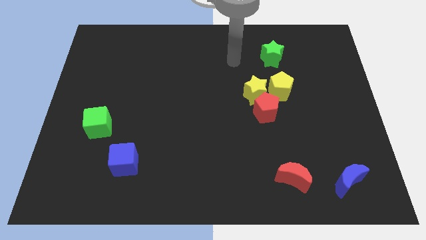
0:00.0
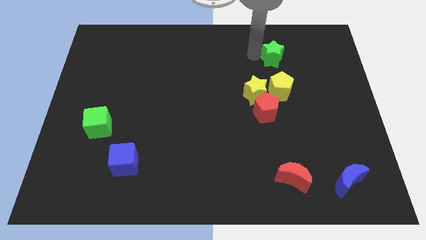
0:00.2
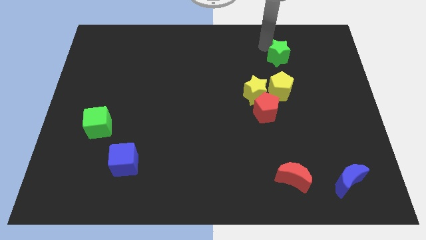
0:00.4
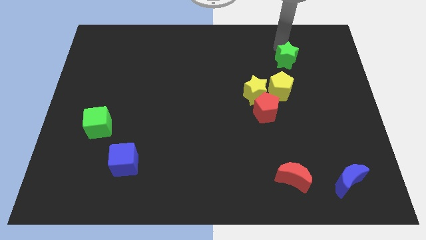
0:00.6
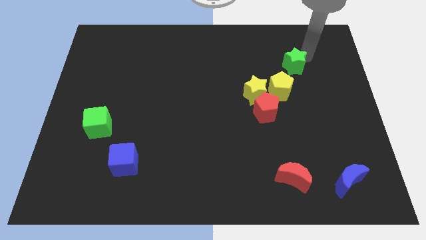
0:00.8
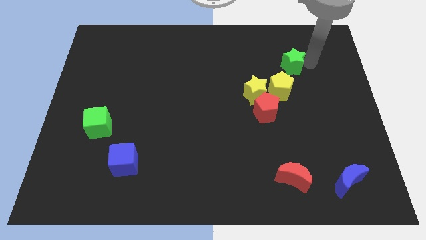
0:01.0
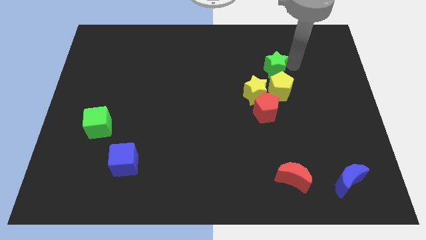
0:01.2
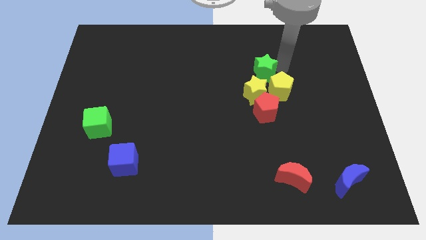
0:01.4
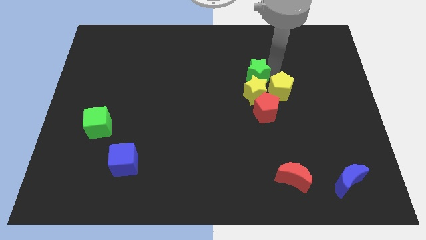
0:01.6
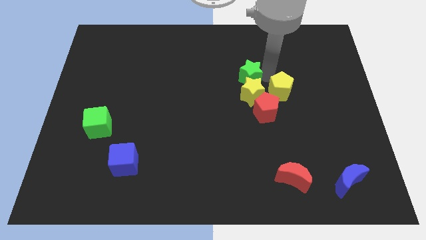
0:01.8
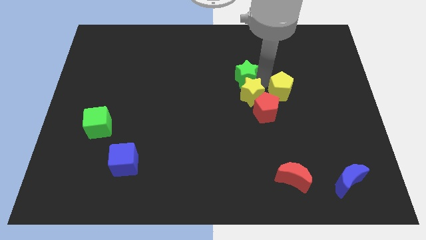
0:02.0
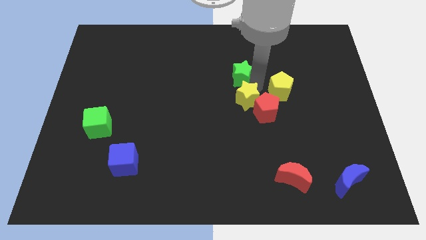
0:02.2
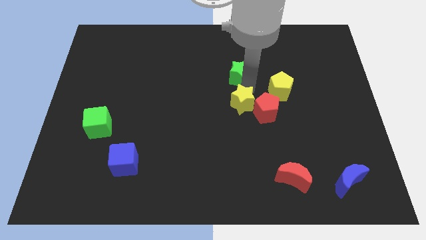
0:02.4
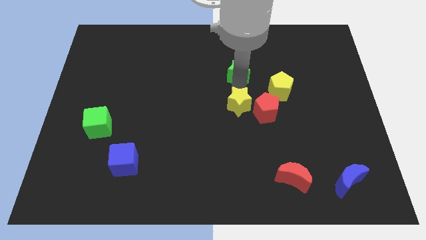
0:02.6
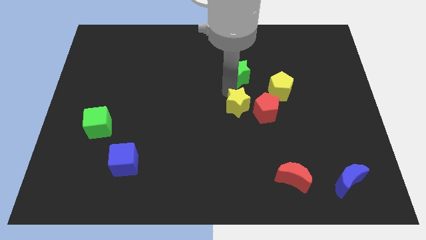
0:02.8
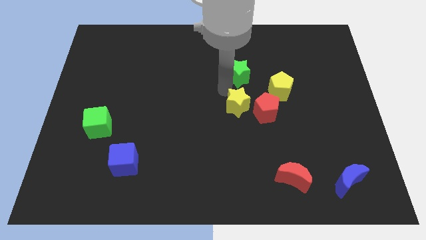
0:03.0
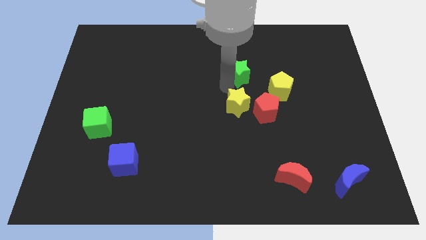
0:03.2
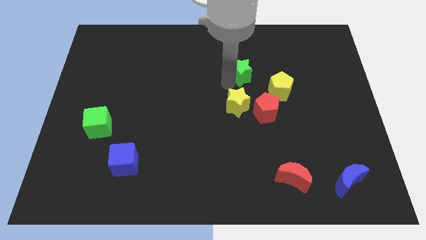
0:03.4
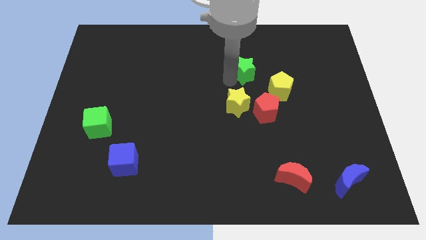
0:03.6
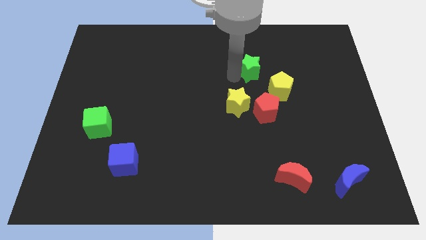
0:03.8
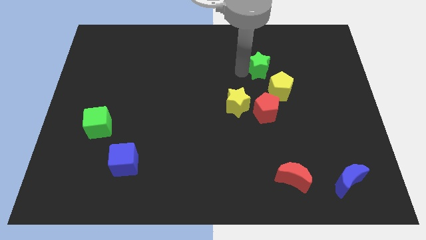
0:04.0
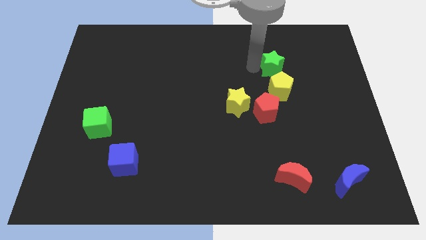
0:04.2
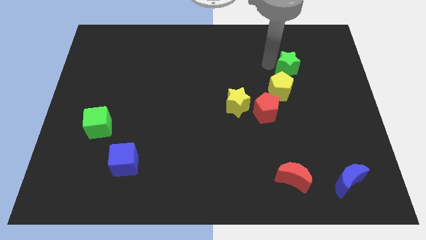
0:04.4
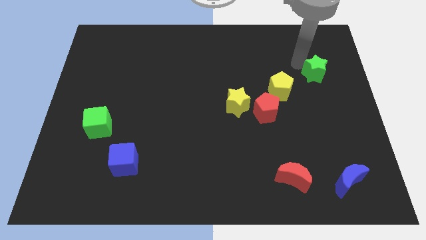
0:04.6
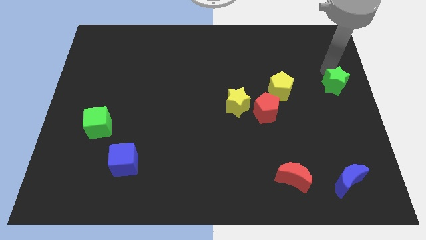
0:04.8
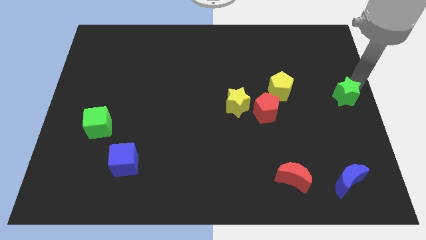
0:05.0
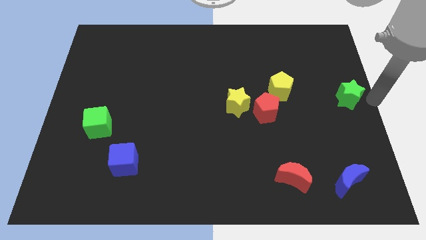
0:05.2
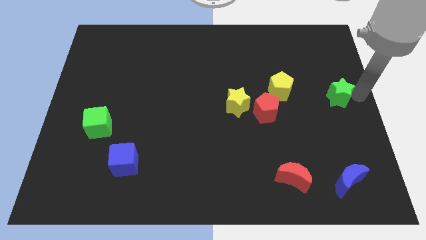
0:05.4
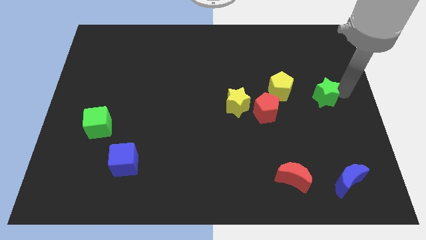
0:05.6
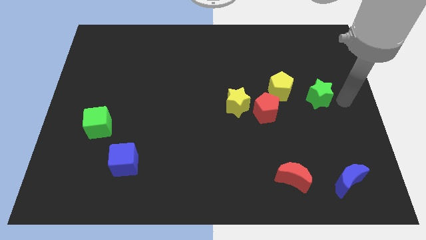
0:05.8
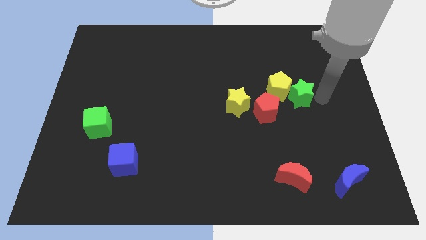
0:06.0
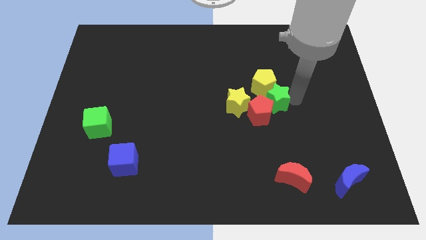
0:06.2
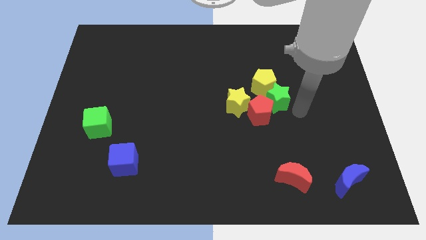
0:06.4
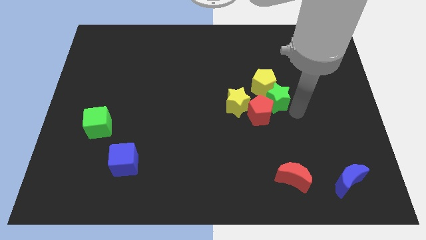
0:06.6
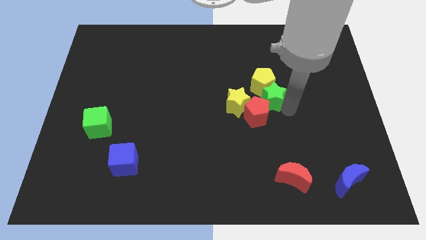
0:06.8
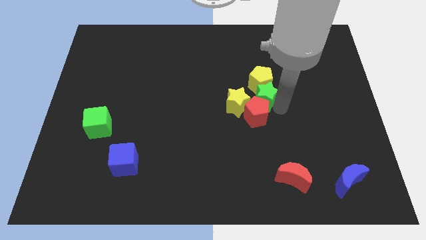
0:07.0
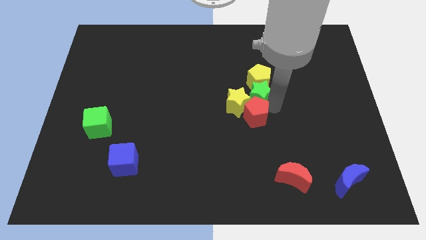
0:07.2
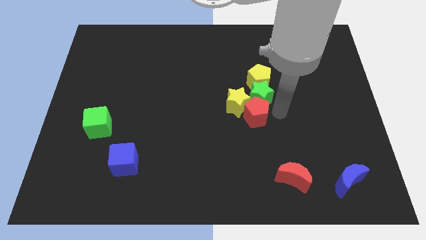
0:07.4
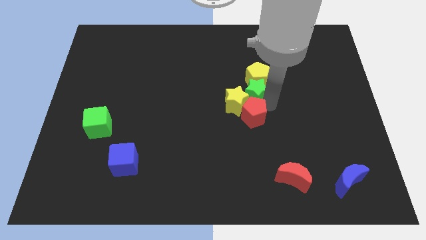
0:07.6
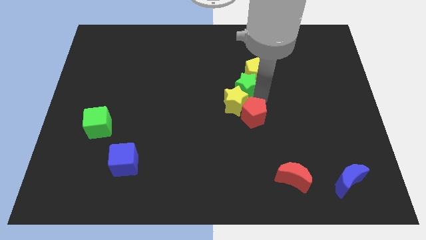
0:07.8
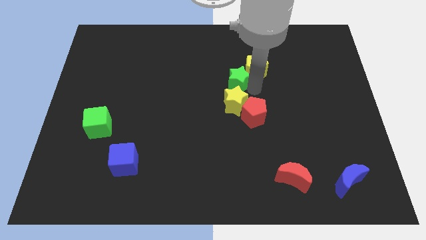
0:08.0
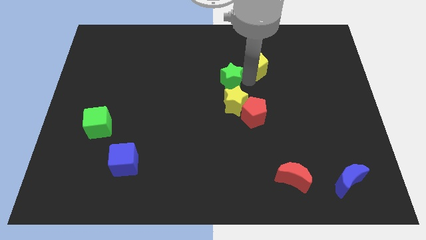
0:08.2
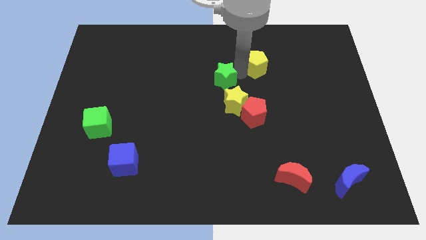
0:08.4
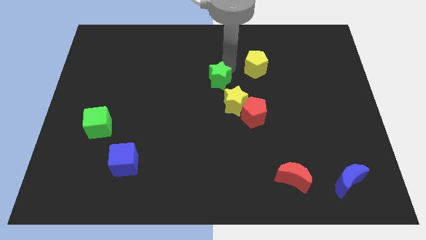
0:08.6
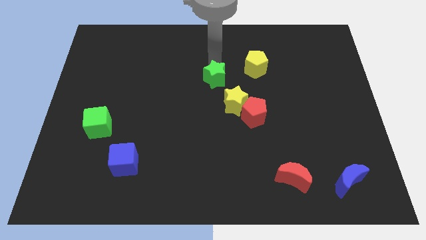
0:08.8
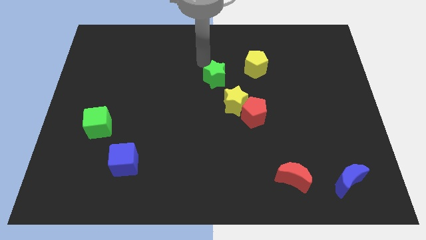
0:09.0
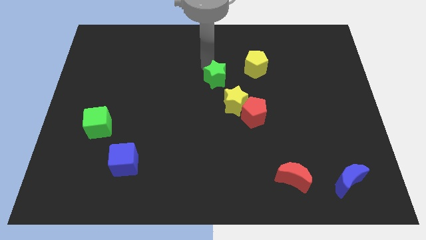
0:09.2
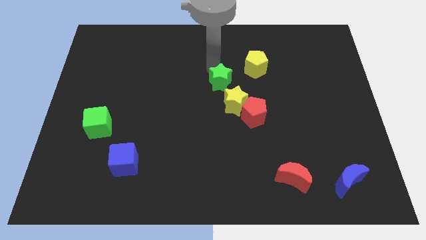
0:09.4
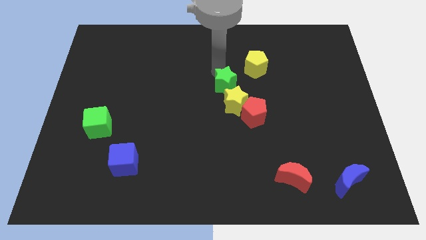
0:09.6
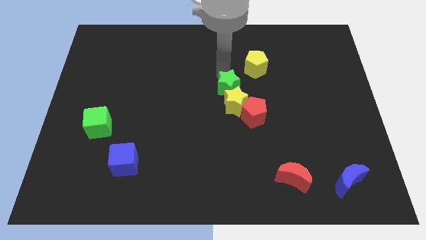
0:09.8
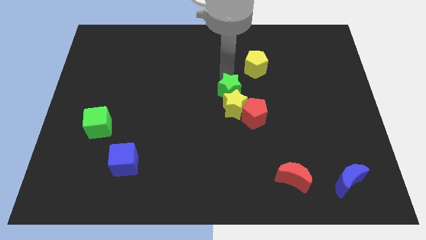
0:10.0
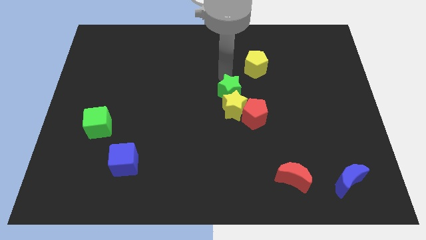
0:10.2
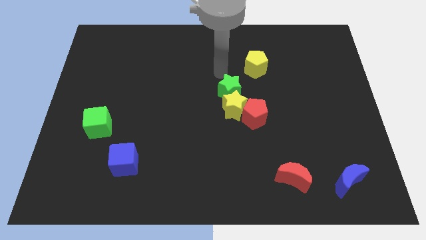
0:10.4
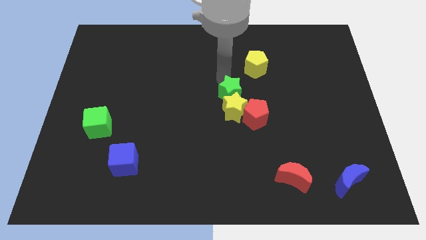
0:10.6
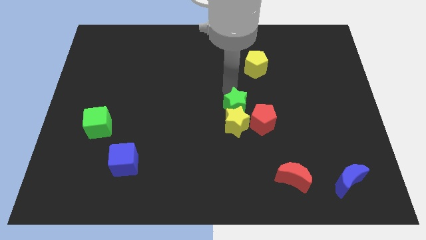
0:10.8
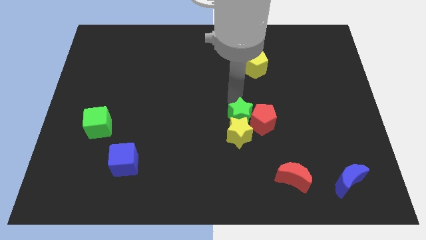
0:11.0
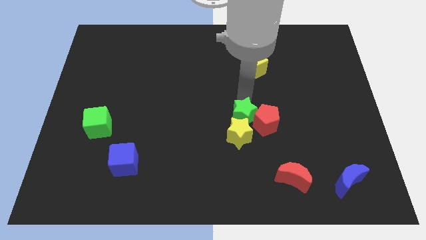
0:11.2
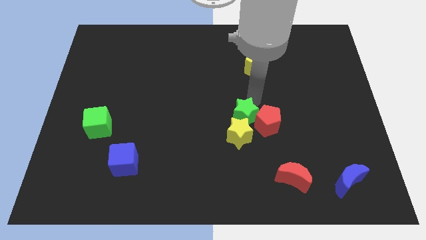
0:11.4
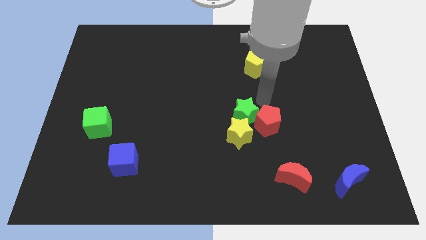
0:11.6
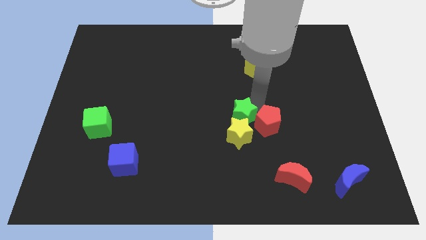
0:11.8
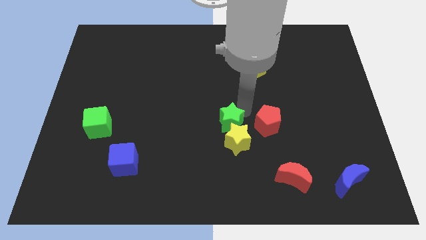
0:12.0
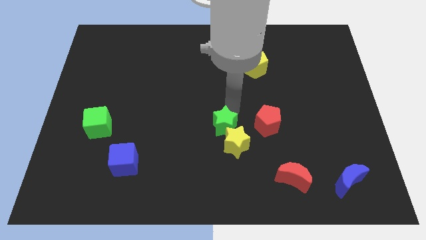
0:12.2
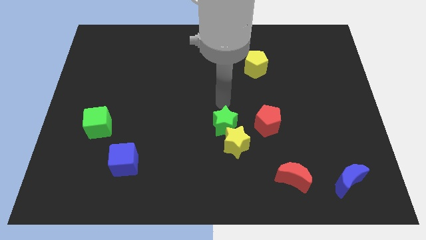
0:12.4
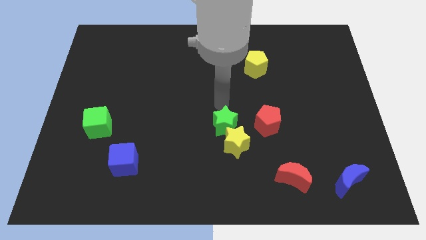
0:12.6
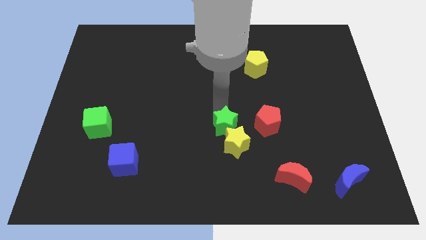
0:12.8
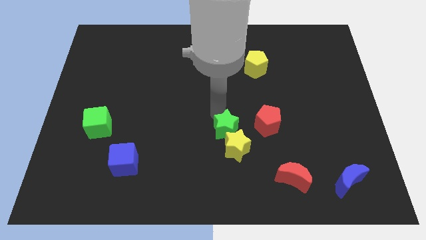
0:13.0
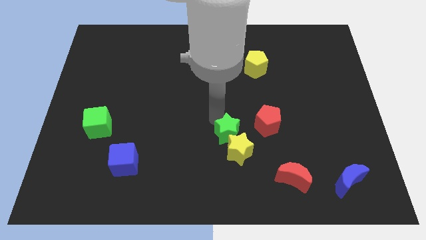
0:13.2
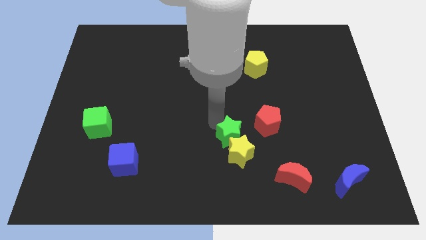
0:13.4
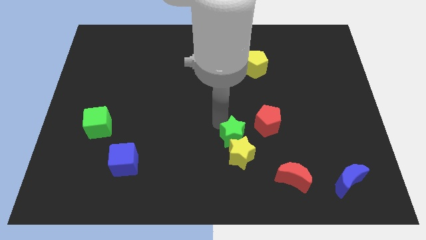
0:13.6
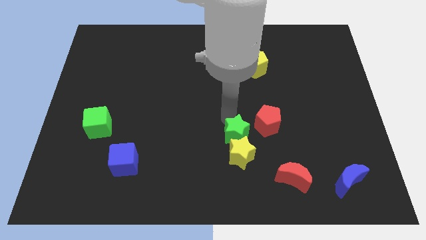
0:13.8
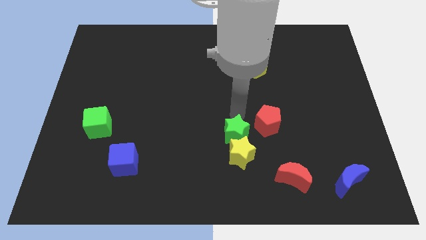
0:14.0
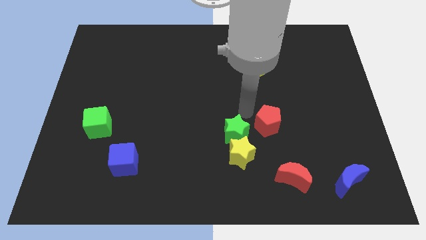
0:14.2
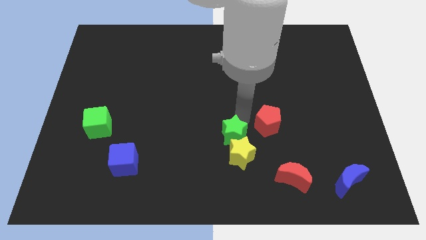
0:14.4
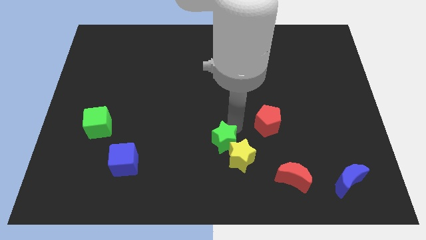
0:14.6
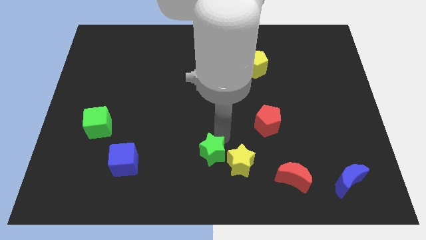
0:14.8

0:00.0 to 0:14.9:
move the green star to the bottom

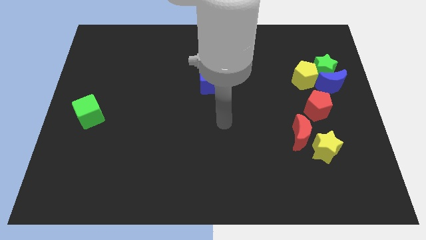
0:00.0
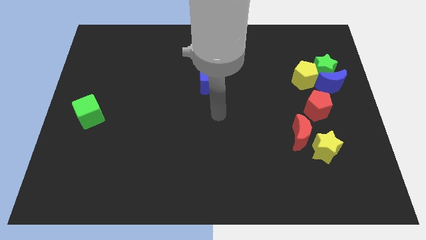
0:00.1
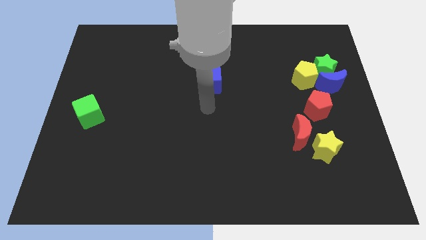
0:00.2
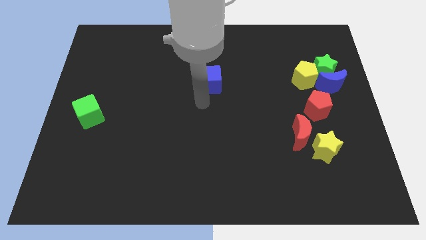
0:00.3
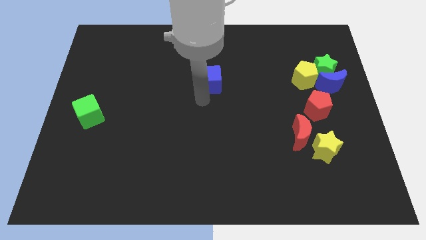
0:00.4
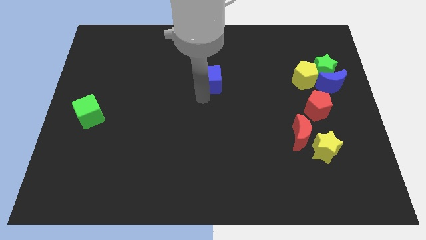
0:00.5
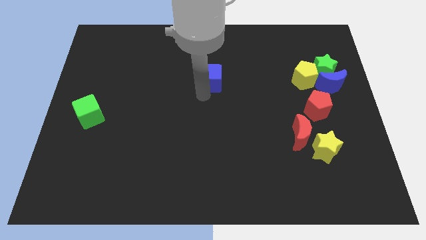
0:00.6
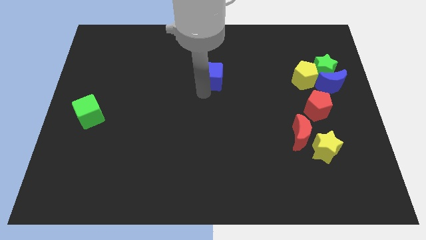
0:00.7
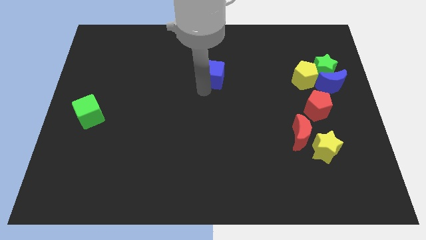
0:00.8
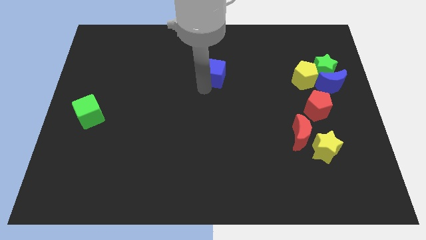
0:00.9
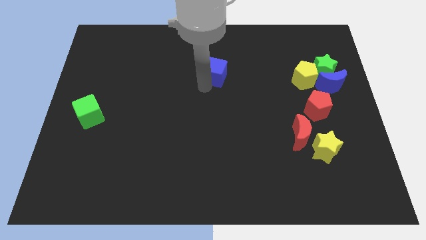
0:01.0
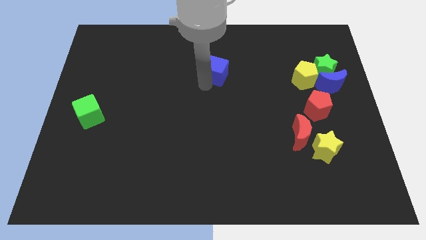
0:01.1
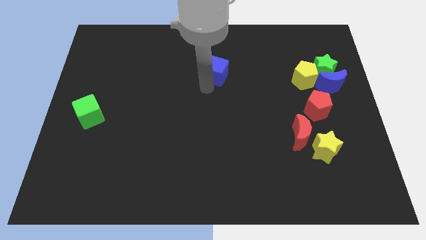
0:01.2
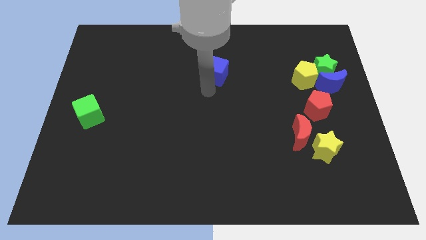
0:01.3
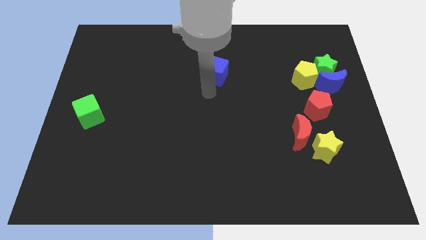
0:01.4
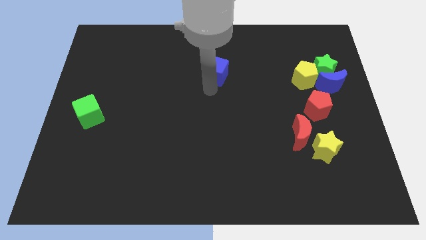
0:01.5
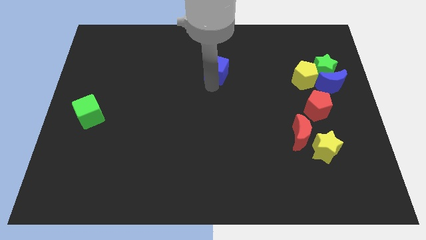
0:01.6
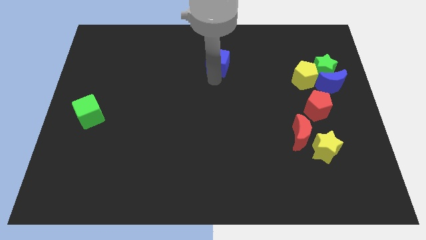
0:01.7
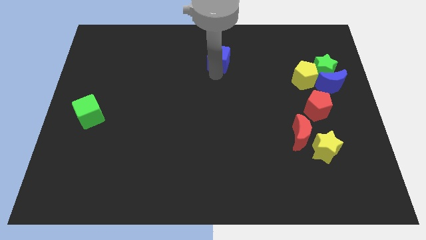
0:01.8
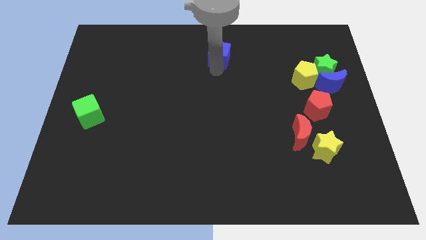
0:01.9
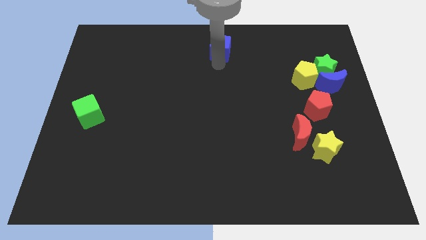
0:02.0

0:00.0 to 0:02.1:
push the blue cube to the top side
